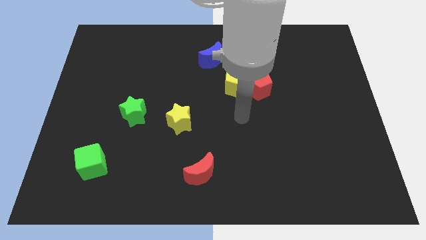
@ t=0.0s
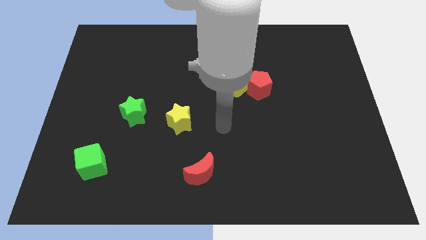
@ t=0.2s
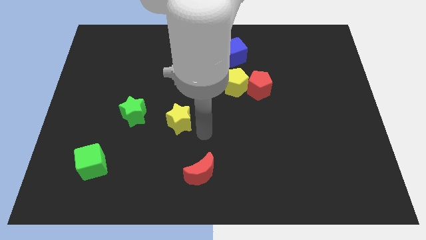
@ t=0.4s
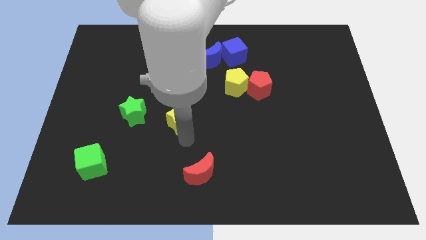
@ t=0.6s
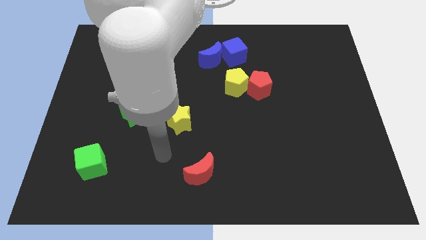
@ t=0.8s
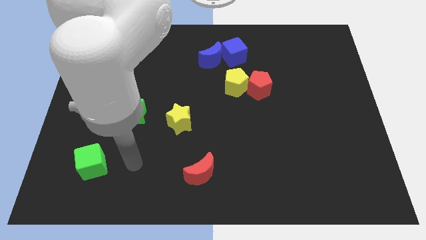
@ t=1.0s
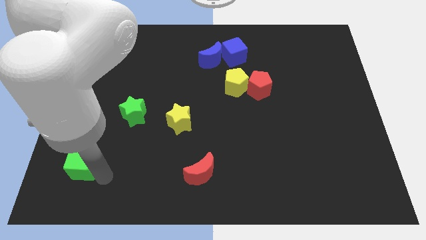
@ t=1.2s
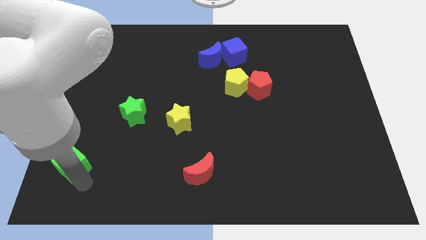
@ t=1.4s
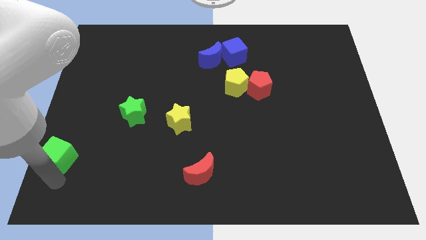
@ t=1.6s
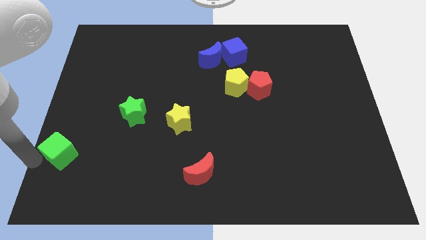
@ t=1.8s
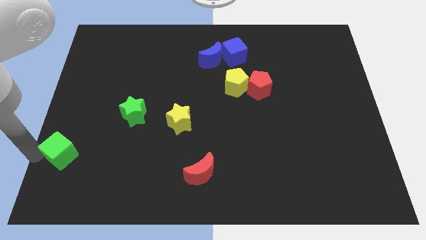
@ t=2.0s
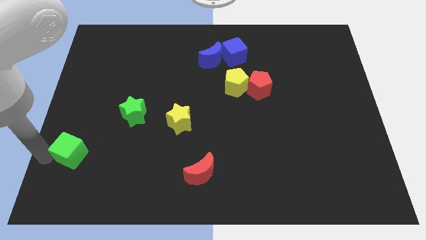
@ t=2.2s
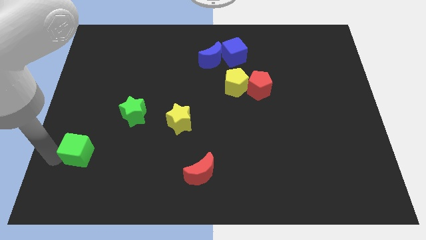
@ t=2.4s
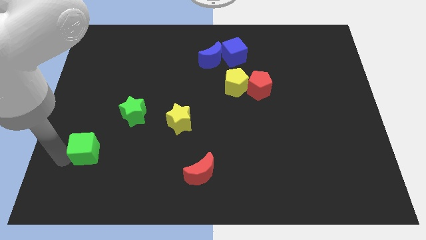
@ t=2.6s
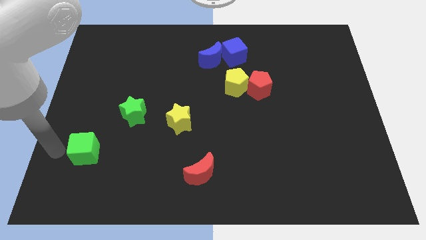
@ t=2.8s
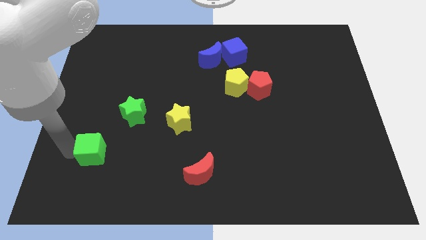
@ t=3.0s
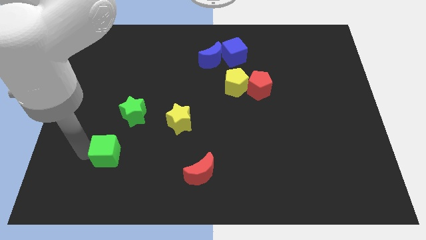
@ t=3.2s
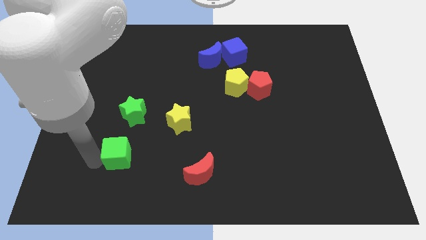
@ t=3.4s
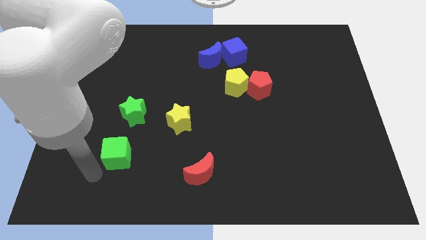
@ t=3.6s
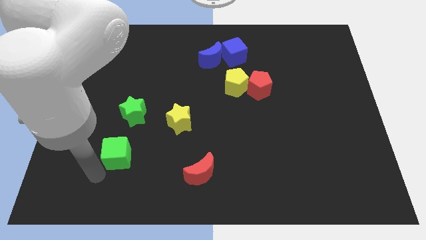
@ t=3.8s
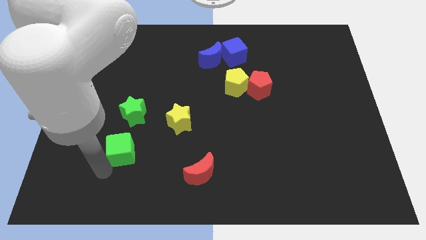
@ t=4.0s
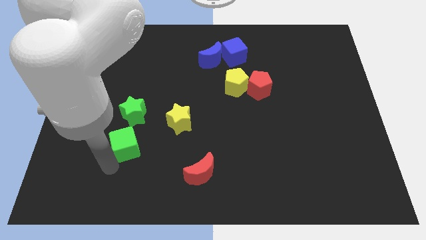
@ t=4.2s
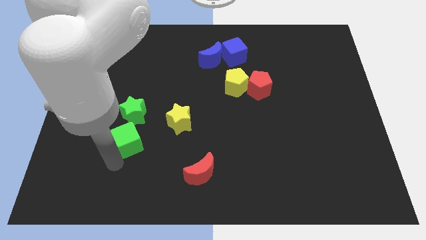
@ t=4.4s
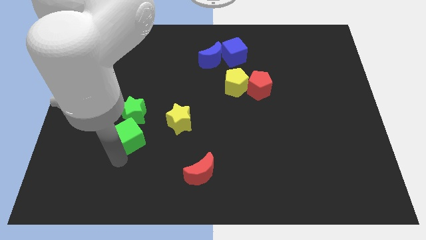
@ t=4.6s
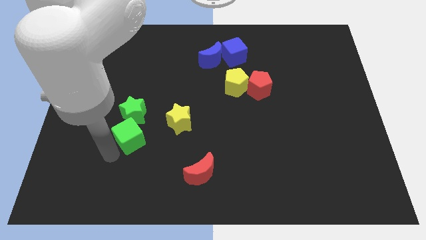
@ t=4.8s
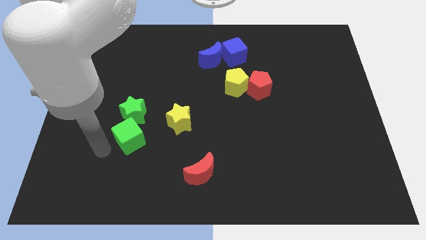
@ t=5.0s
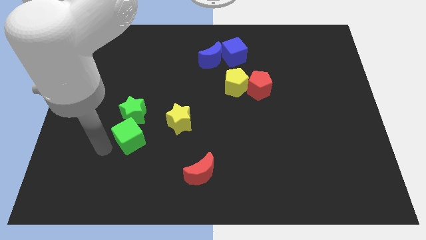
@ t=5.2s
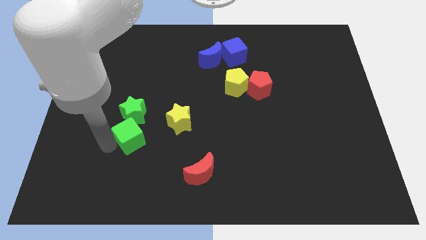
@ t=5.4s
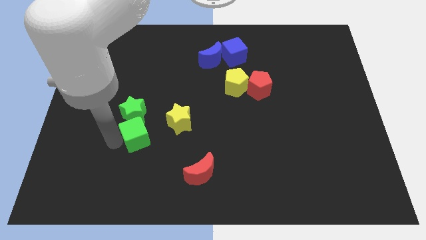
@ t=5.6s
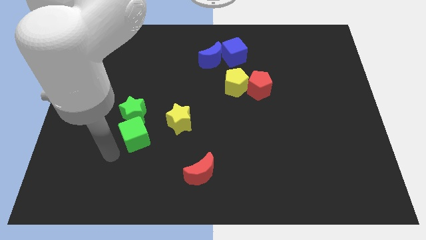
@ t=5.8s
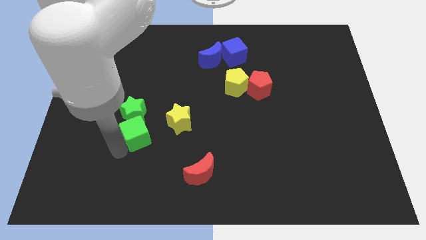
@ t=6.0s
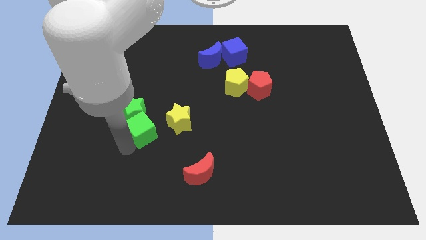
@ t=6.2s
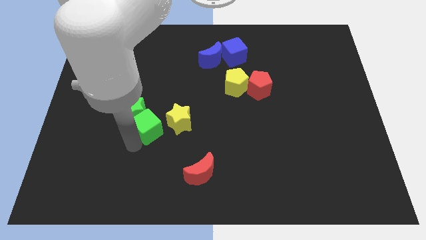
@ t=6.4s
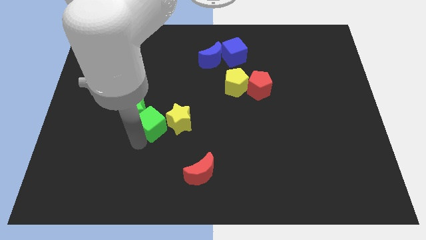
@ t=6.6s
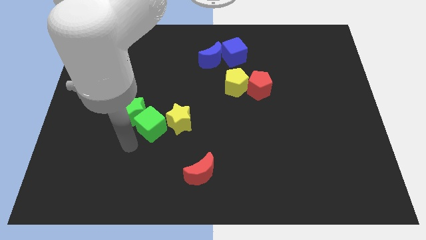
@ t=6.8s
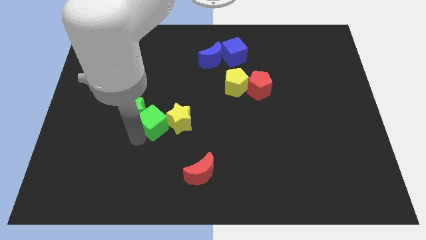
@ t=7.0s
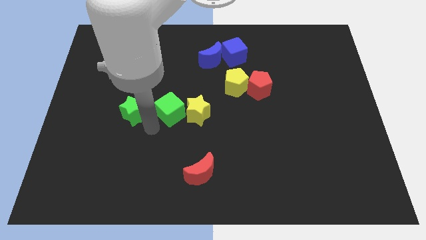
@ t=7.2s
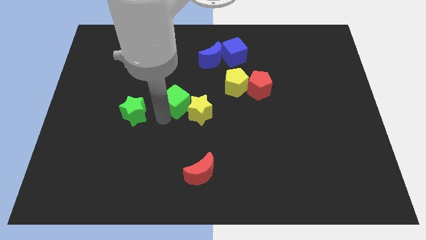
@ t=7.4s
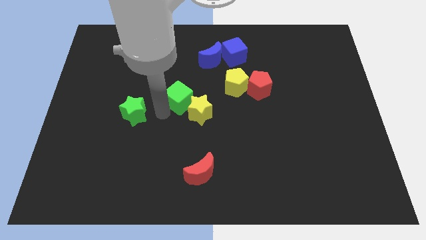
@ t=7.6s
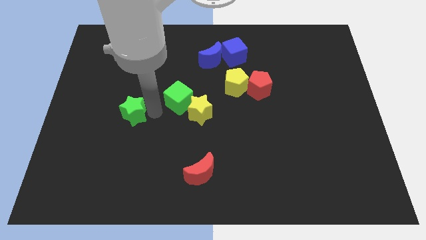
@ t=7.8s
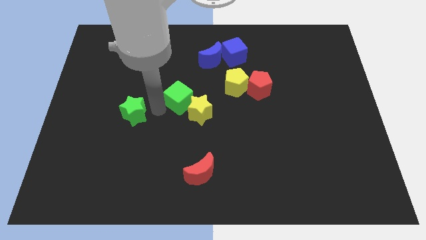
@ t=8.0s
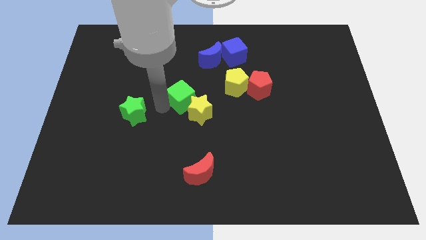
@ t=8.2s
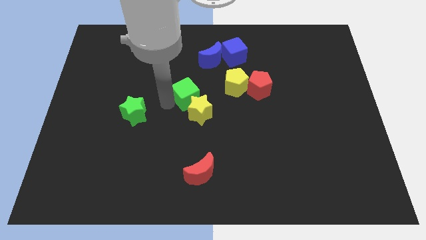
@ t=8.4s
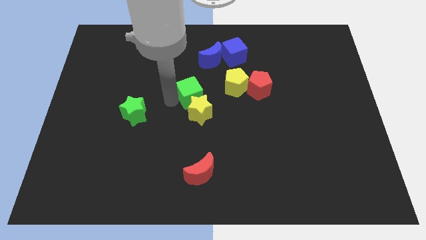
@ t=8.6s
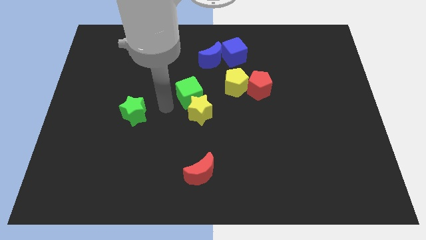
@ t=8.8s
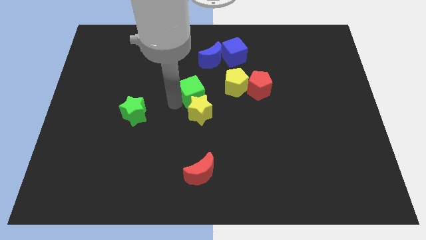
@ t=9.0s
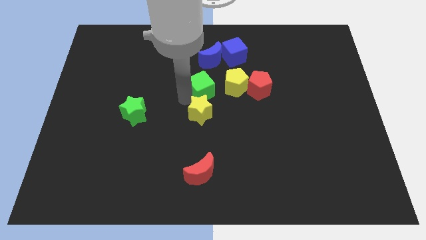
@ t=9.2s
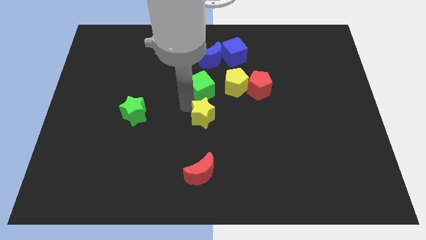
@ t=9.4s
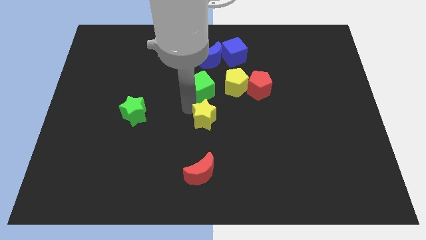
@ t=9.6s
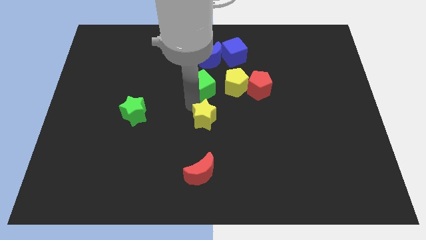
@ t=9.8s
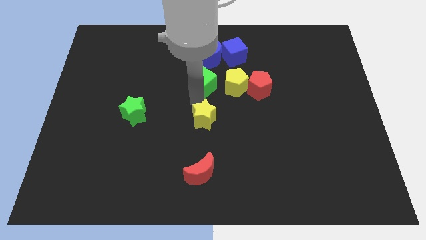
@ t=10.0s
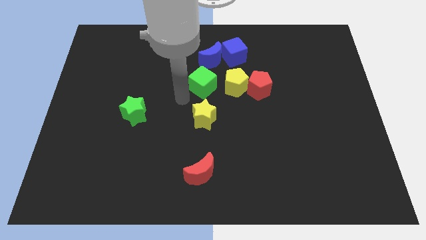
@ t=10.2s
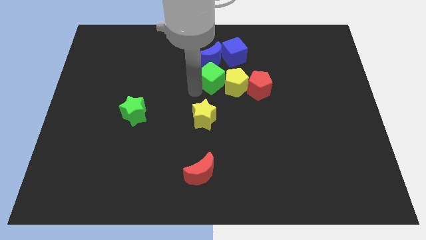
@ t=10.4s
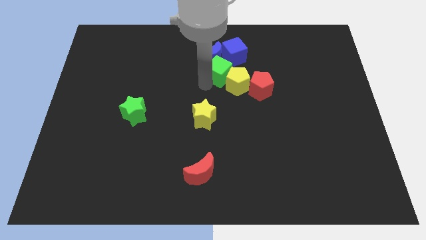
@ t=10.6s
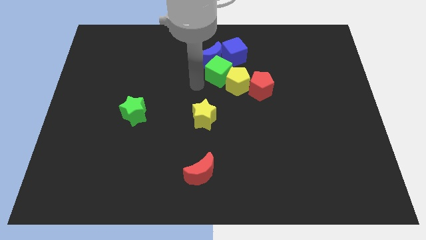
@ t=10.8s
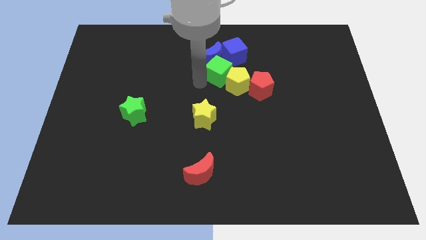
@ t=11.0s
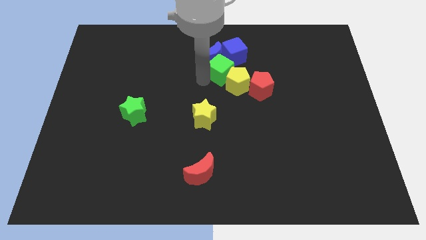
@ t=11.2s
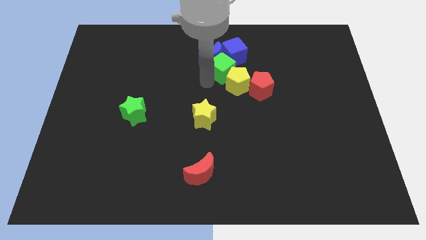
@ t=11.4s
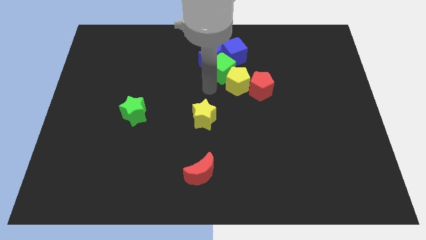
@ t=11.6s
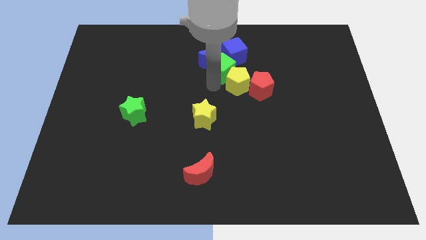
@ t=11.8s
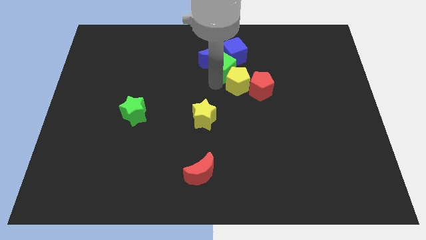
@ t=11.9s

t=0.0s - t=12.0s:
put the green cube towards the blue cube

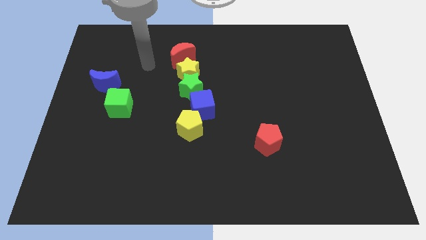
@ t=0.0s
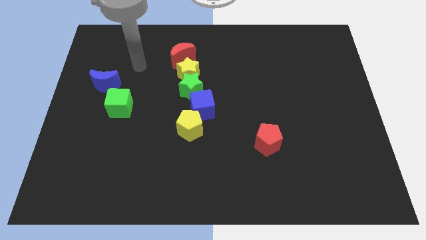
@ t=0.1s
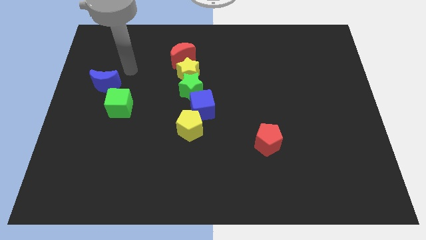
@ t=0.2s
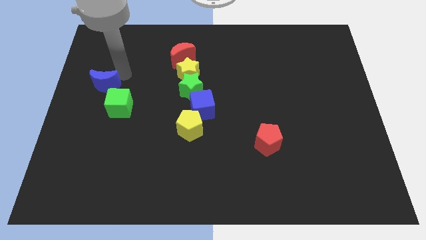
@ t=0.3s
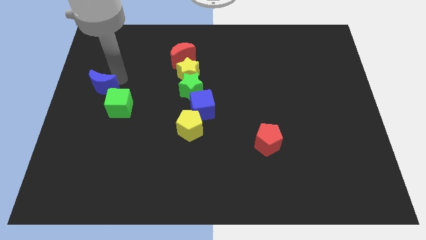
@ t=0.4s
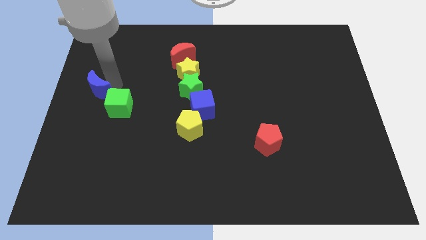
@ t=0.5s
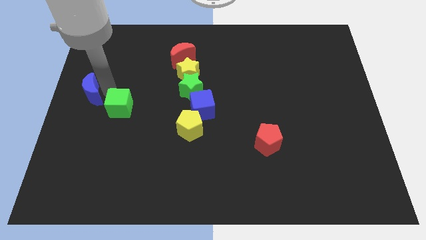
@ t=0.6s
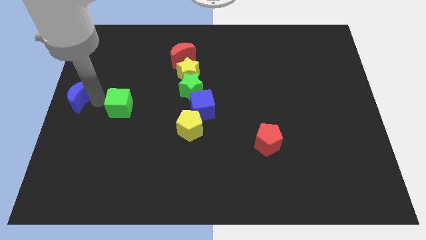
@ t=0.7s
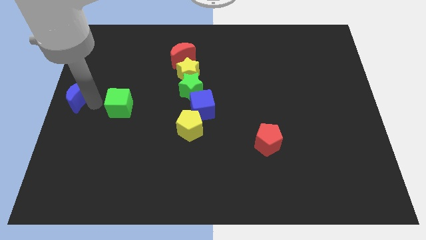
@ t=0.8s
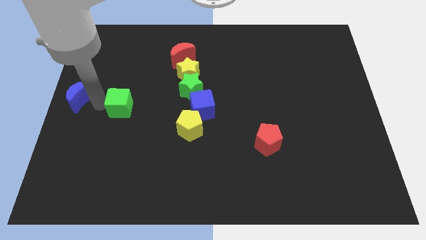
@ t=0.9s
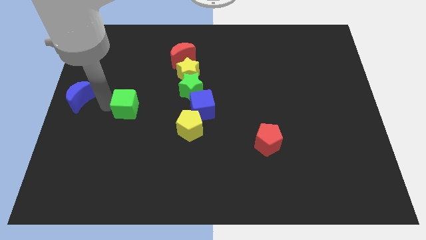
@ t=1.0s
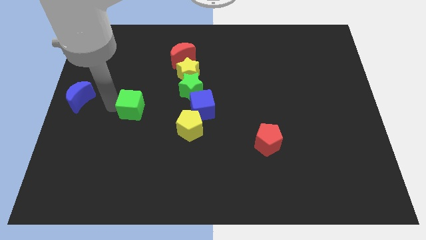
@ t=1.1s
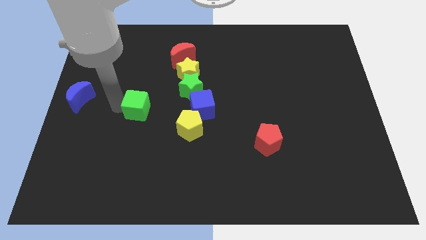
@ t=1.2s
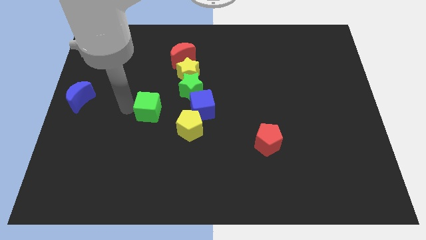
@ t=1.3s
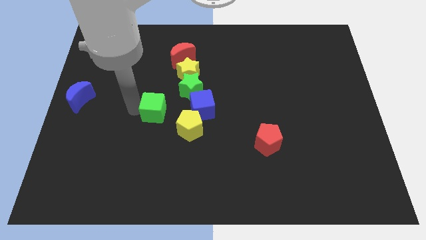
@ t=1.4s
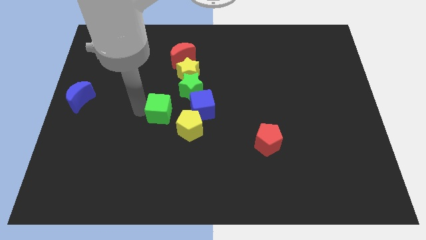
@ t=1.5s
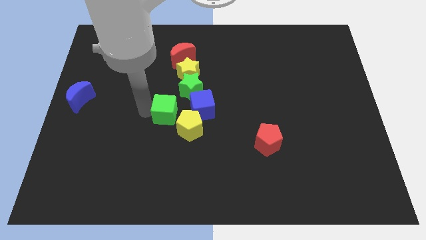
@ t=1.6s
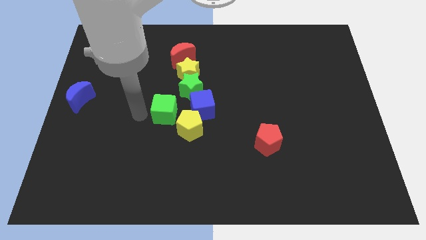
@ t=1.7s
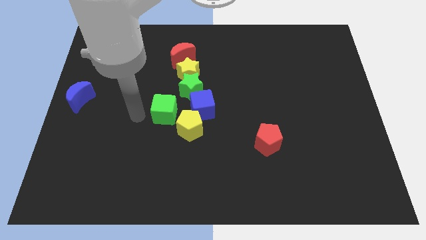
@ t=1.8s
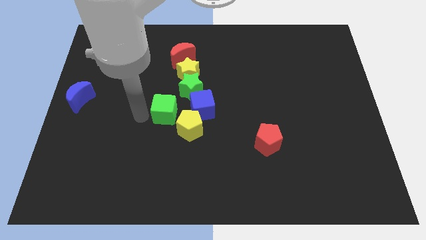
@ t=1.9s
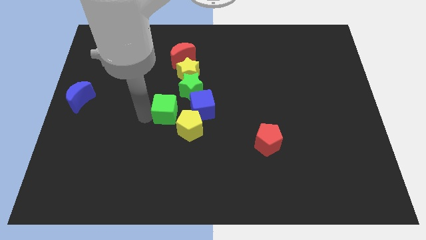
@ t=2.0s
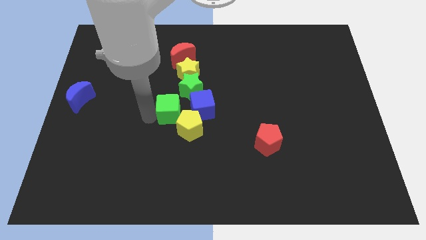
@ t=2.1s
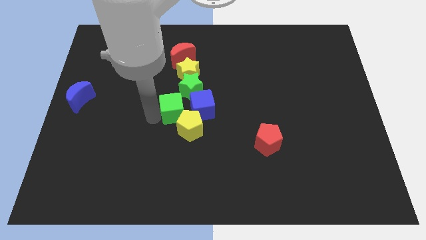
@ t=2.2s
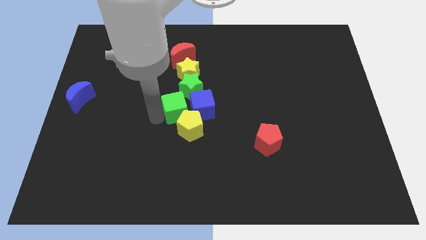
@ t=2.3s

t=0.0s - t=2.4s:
move the green cube next to the blue cube
